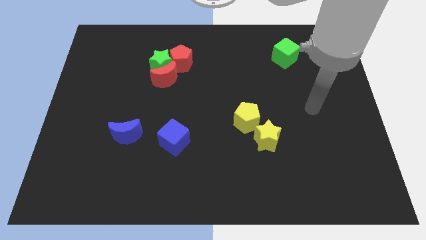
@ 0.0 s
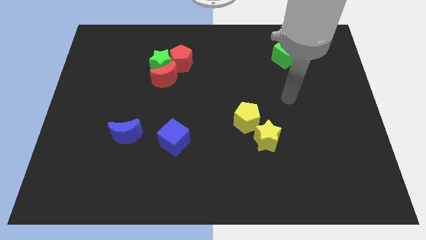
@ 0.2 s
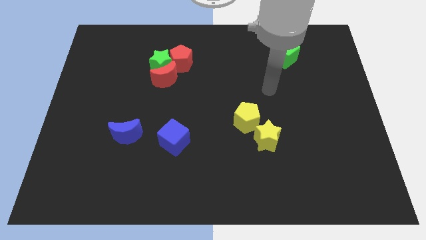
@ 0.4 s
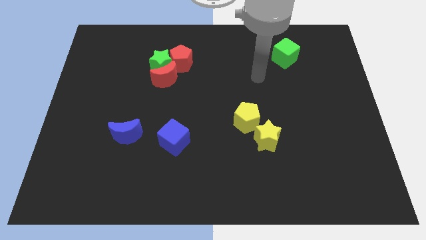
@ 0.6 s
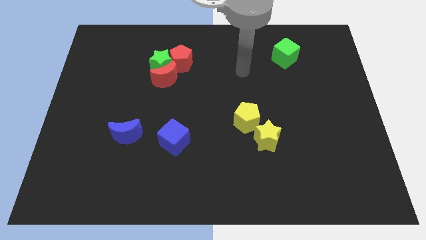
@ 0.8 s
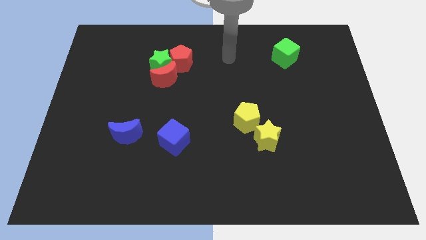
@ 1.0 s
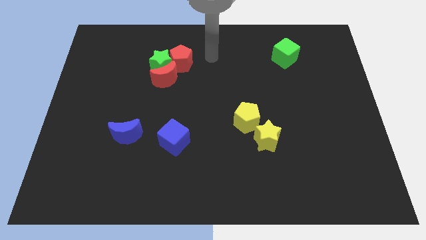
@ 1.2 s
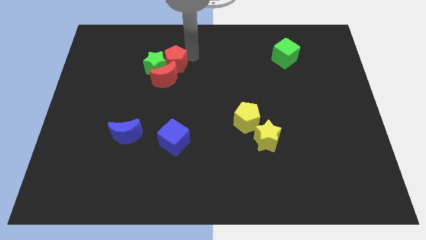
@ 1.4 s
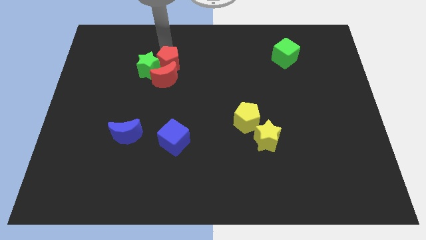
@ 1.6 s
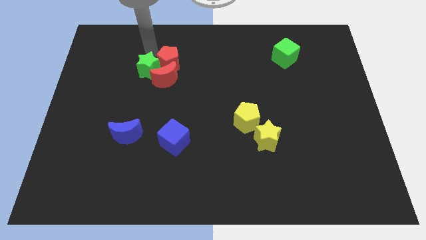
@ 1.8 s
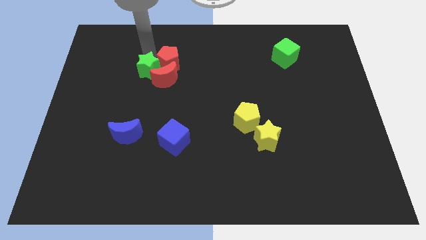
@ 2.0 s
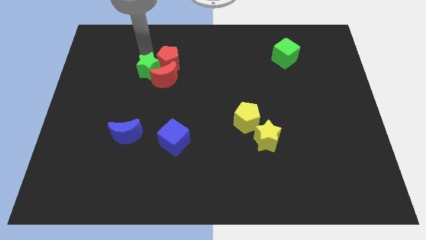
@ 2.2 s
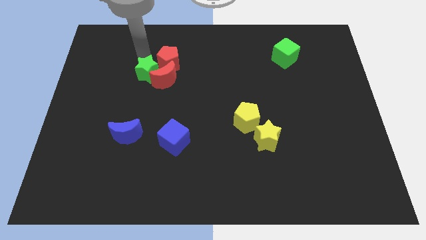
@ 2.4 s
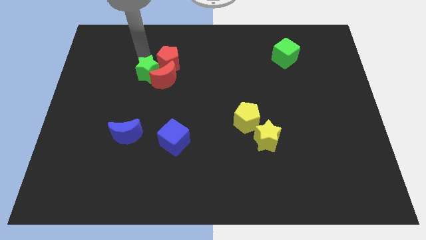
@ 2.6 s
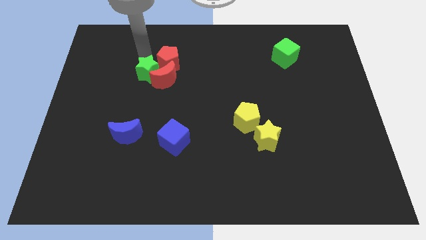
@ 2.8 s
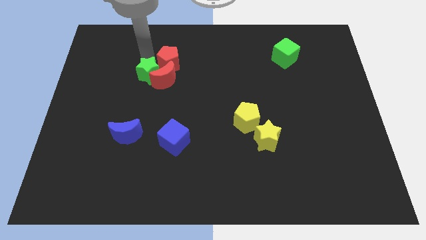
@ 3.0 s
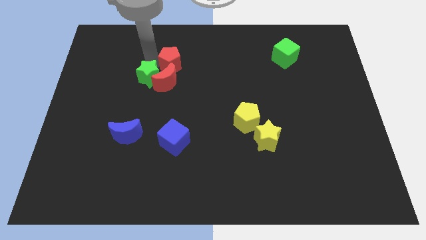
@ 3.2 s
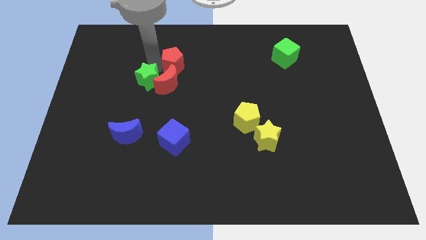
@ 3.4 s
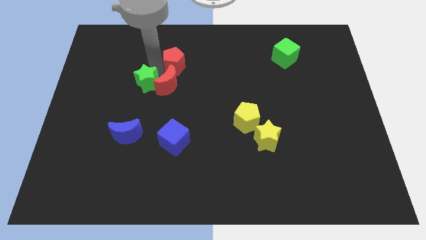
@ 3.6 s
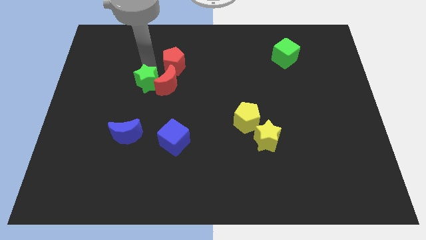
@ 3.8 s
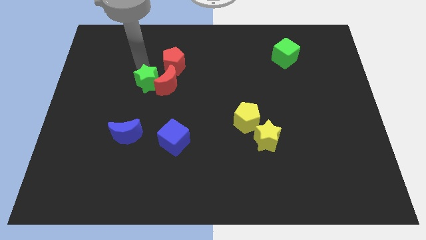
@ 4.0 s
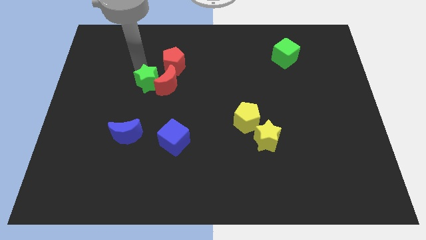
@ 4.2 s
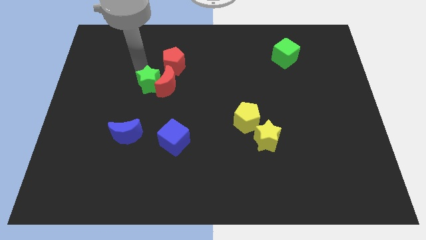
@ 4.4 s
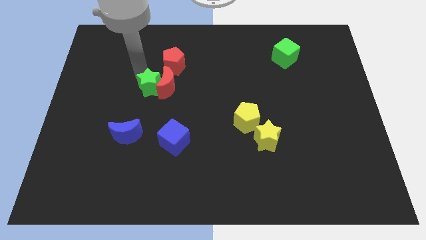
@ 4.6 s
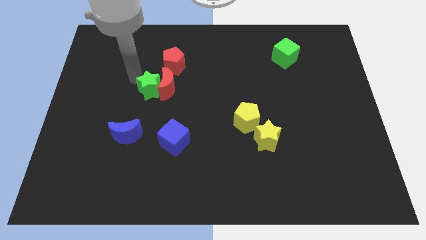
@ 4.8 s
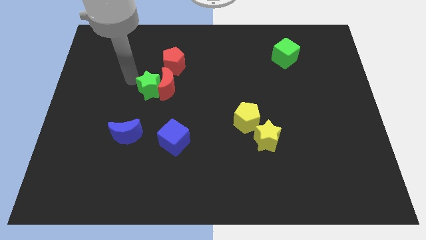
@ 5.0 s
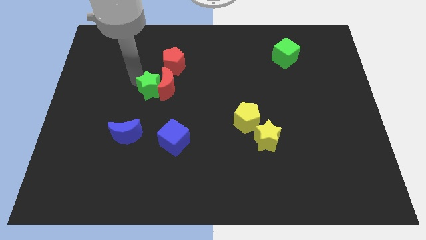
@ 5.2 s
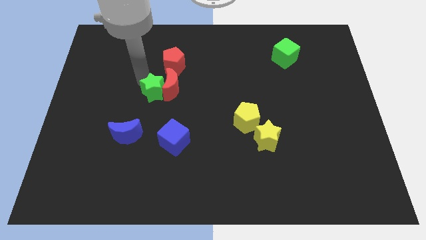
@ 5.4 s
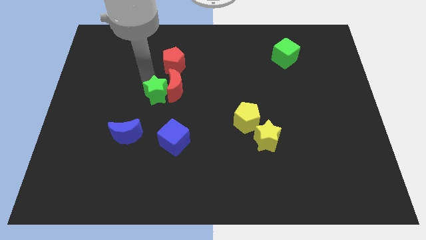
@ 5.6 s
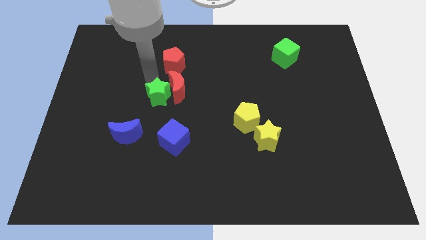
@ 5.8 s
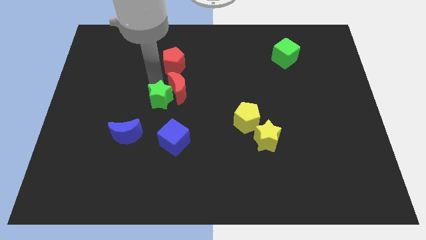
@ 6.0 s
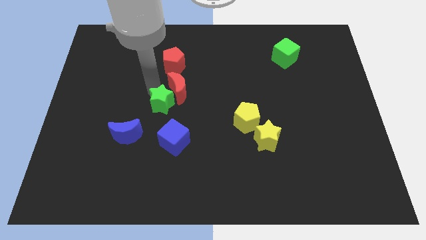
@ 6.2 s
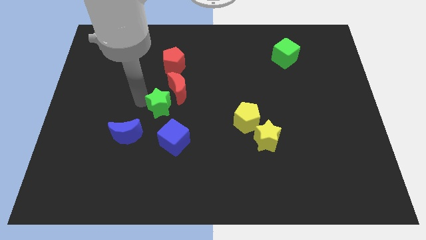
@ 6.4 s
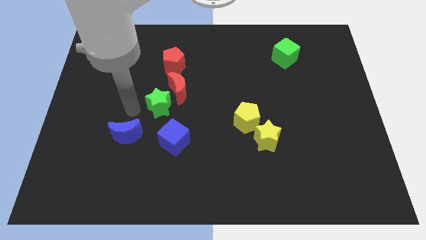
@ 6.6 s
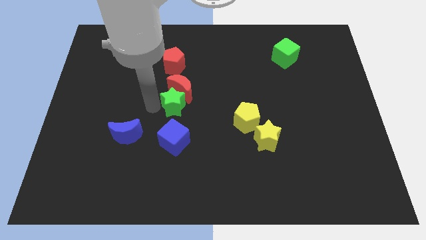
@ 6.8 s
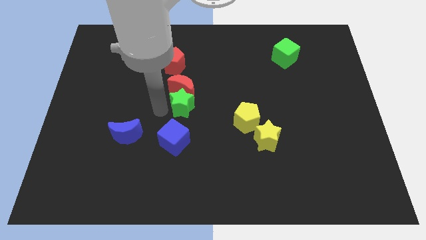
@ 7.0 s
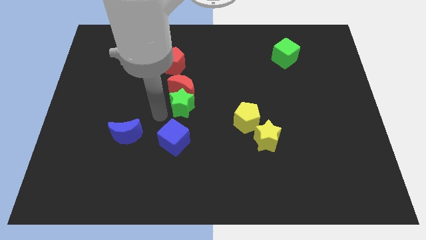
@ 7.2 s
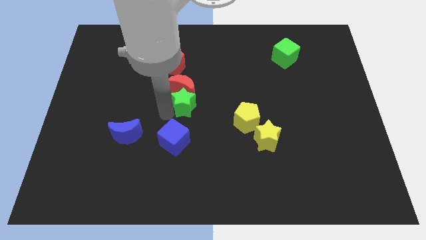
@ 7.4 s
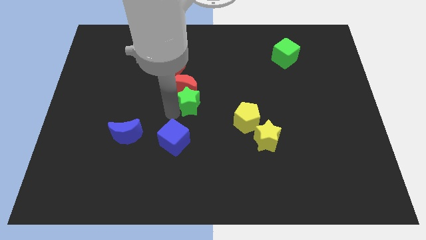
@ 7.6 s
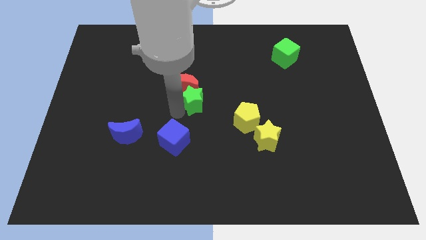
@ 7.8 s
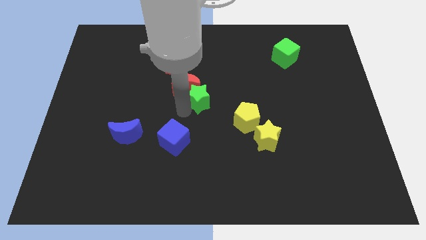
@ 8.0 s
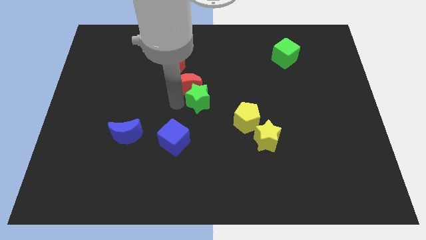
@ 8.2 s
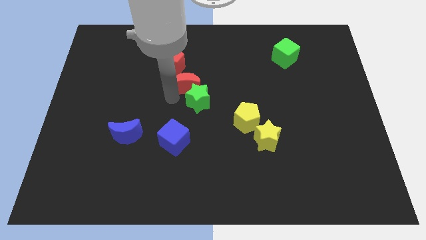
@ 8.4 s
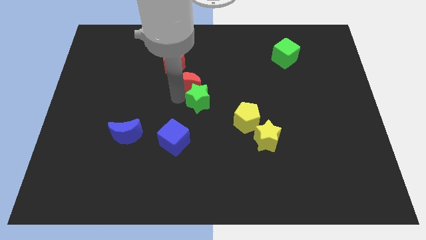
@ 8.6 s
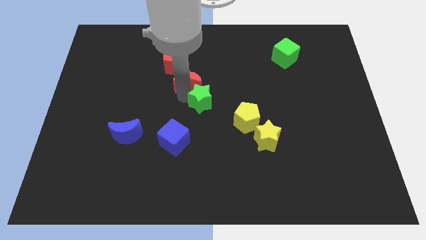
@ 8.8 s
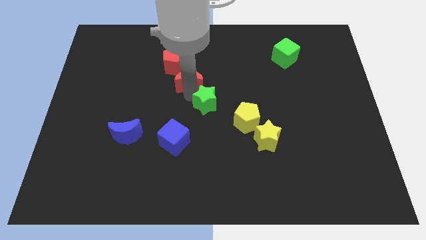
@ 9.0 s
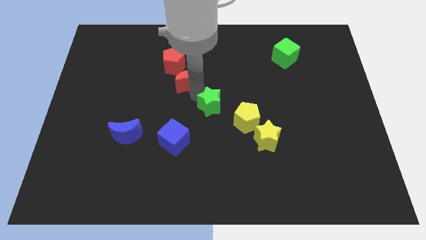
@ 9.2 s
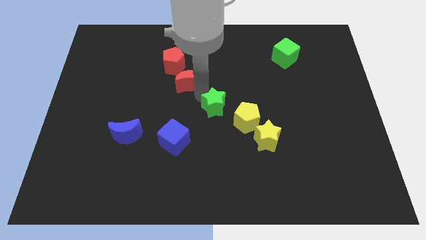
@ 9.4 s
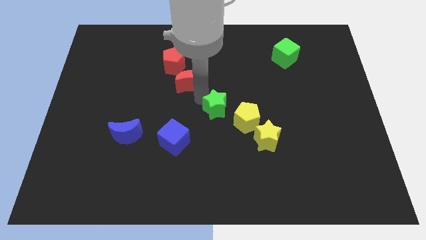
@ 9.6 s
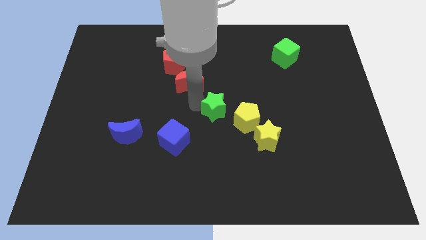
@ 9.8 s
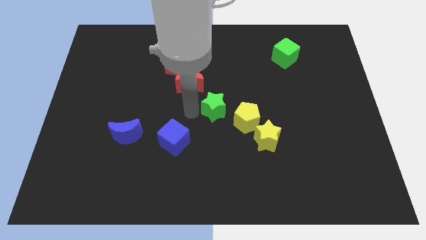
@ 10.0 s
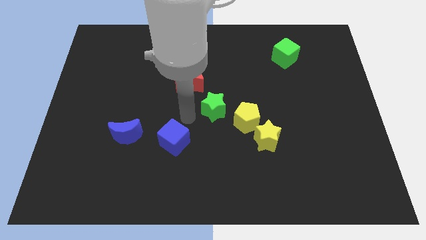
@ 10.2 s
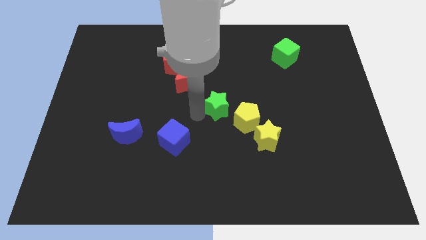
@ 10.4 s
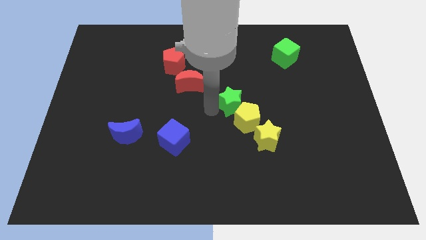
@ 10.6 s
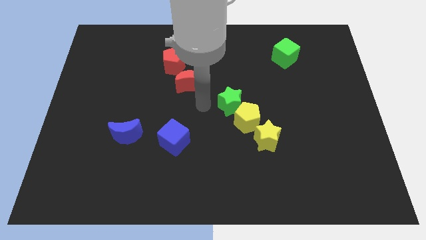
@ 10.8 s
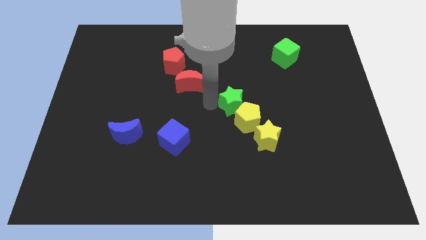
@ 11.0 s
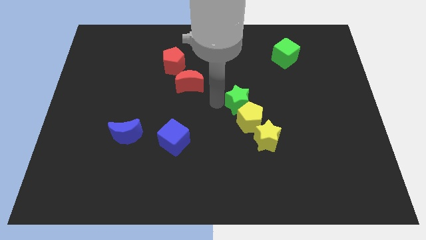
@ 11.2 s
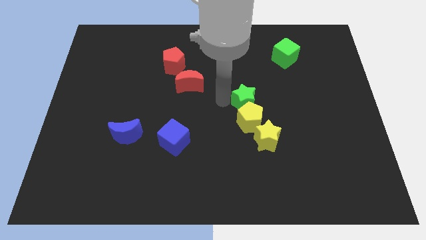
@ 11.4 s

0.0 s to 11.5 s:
slide the green star above the yellow star

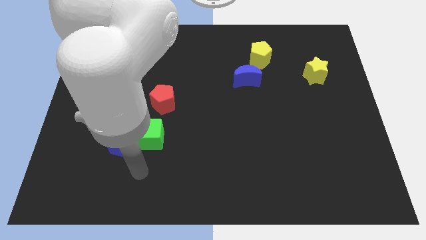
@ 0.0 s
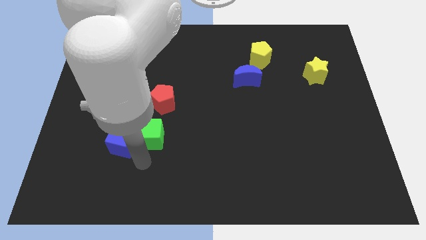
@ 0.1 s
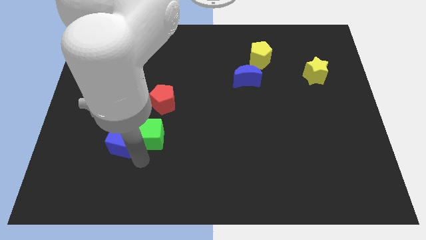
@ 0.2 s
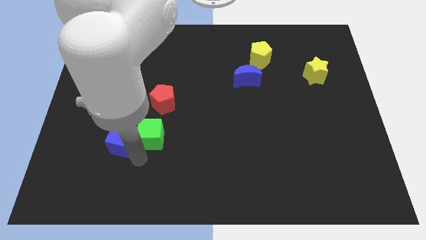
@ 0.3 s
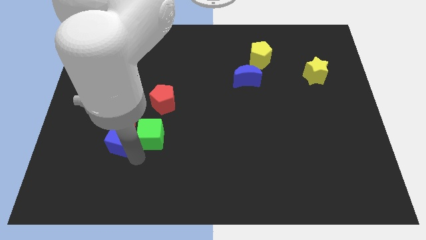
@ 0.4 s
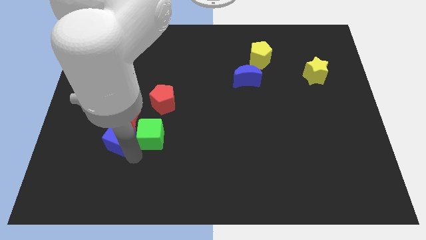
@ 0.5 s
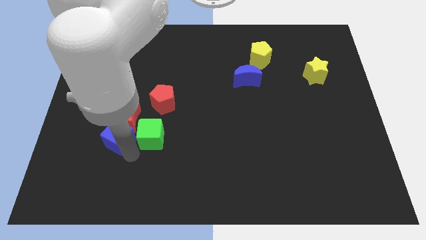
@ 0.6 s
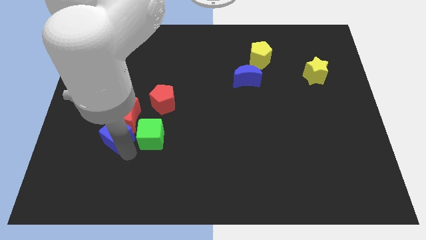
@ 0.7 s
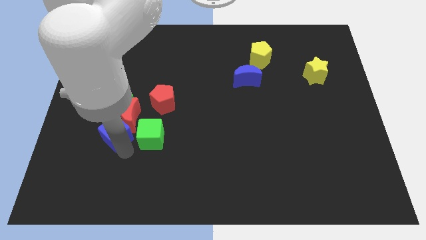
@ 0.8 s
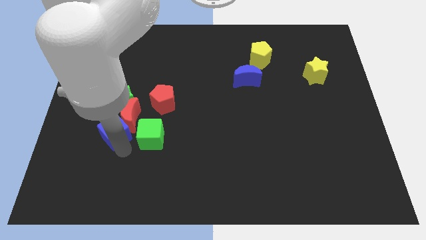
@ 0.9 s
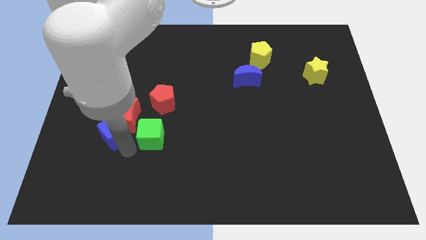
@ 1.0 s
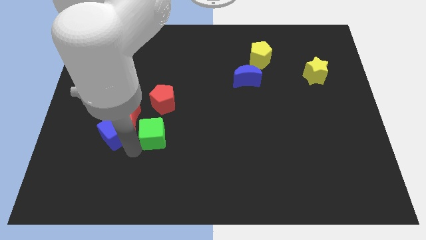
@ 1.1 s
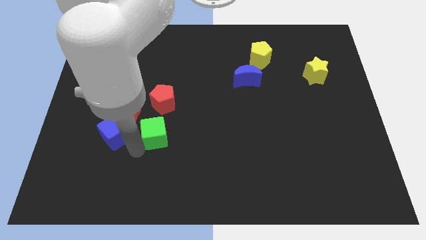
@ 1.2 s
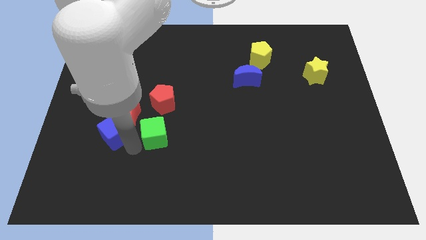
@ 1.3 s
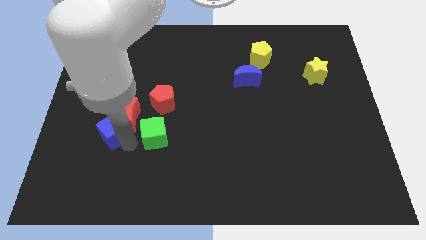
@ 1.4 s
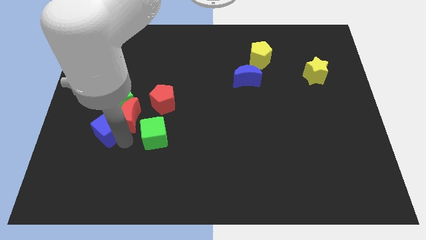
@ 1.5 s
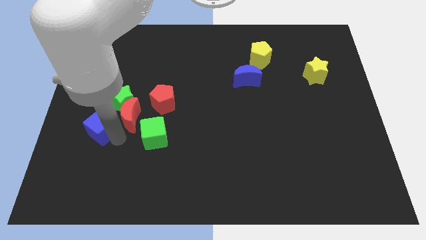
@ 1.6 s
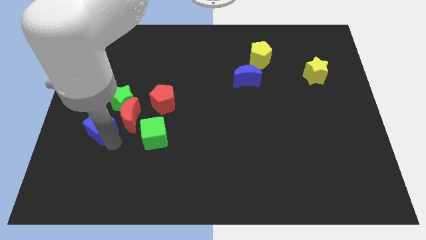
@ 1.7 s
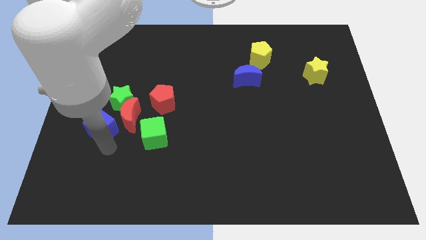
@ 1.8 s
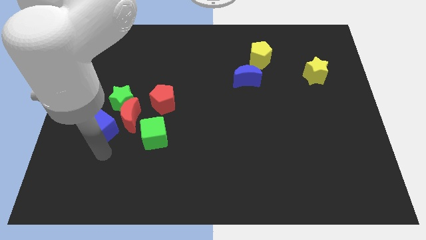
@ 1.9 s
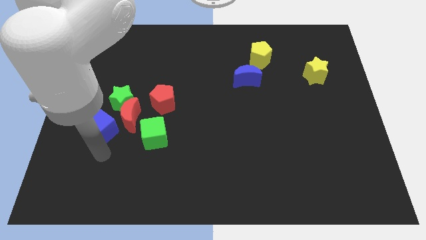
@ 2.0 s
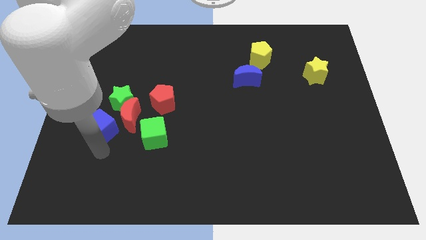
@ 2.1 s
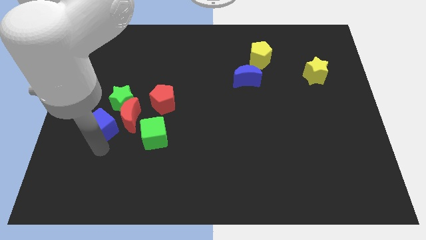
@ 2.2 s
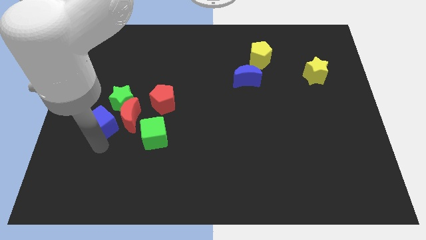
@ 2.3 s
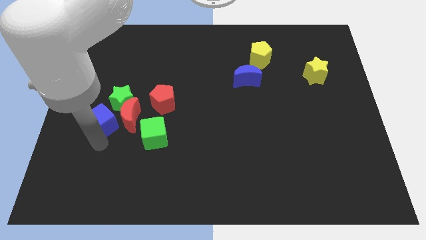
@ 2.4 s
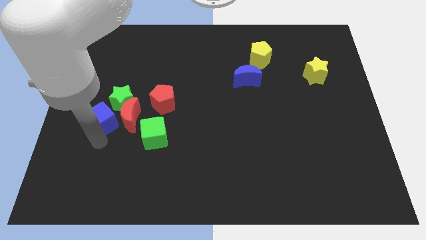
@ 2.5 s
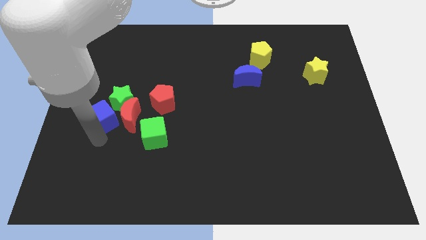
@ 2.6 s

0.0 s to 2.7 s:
put the blue cube diagonally up and to the left of the red moon
